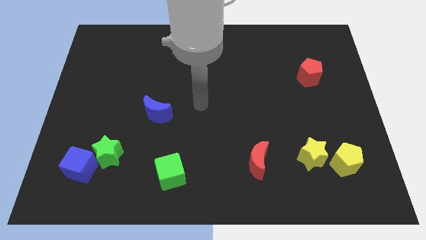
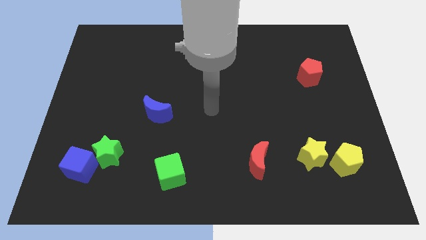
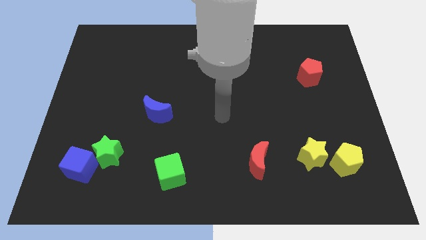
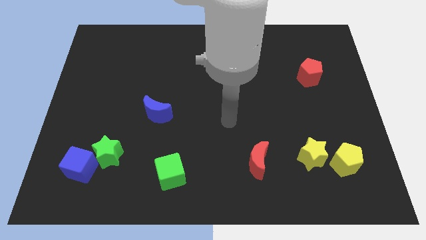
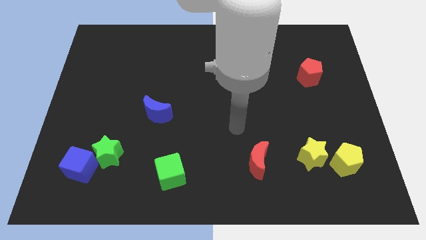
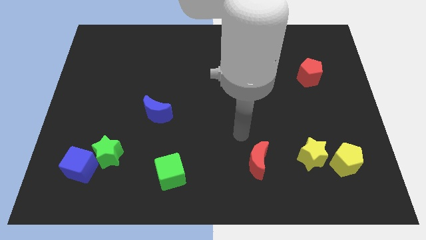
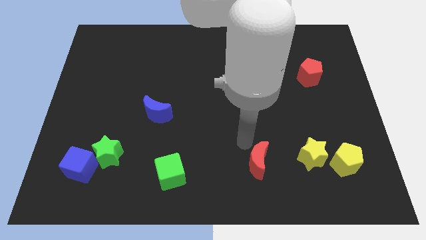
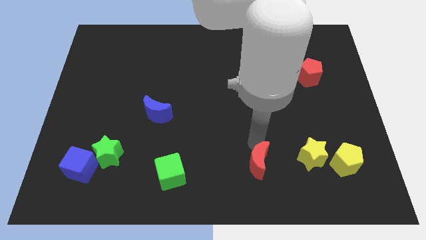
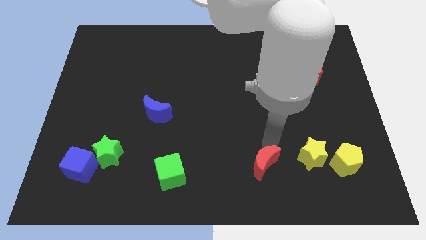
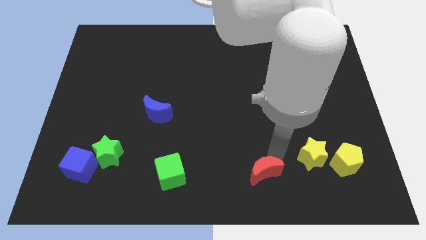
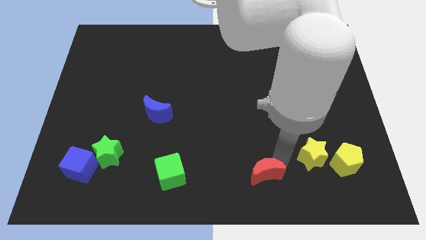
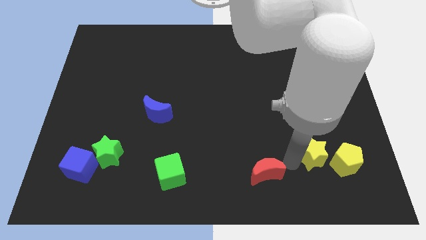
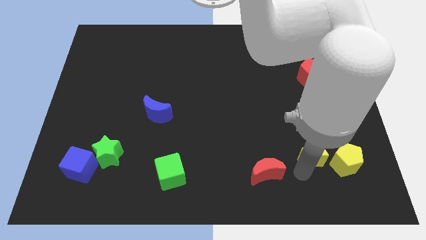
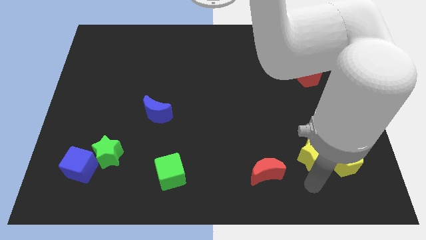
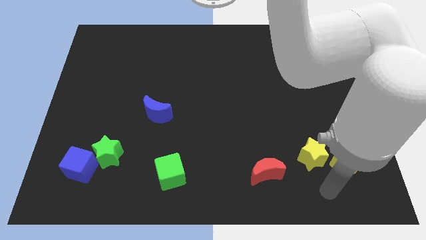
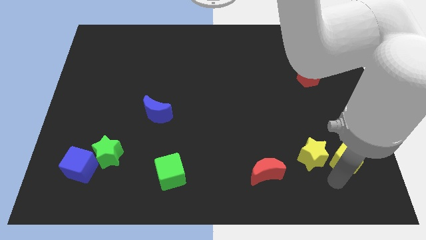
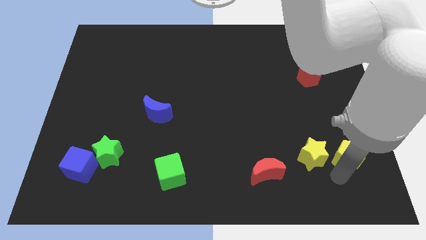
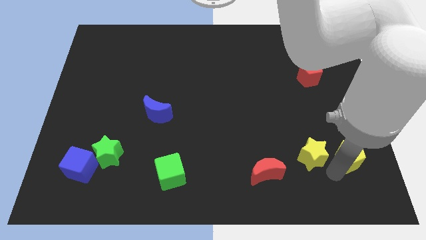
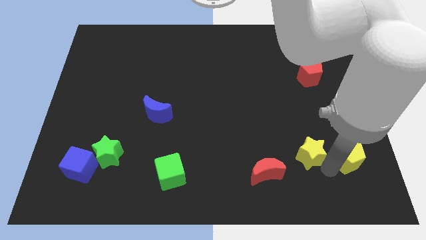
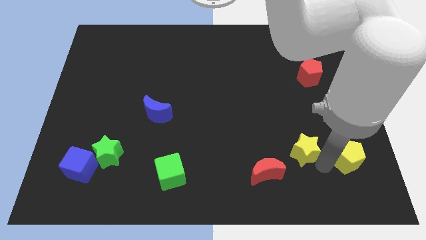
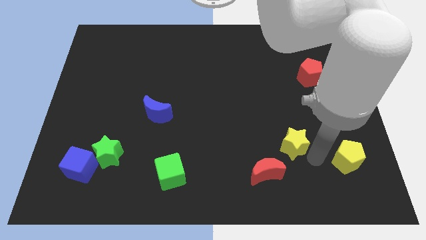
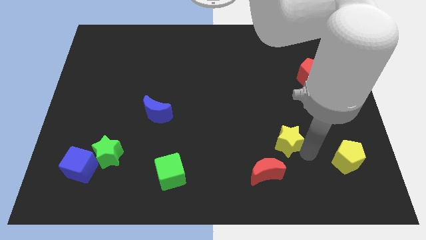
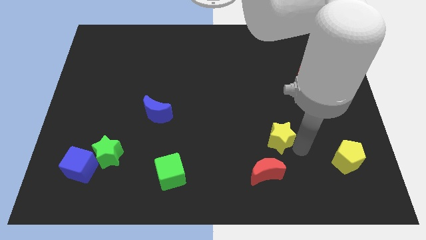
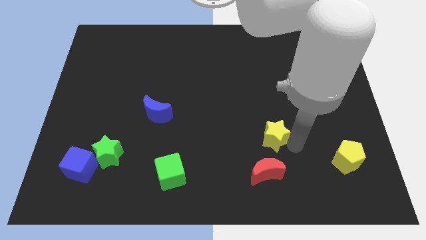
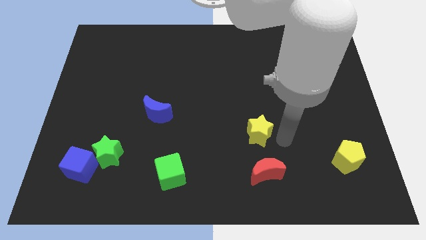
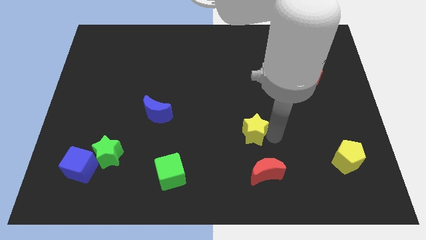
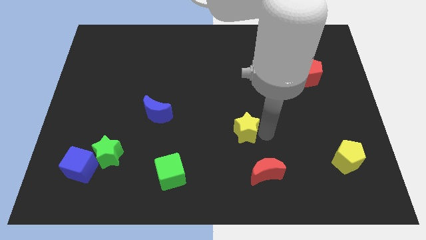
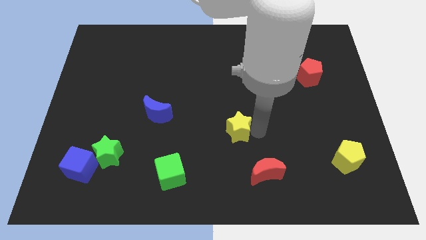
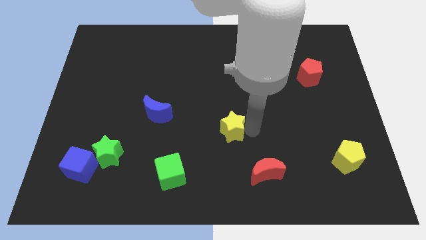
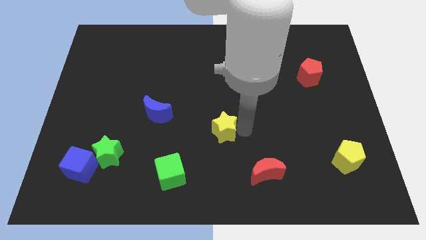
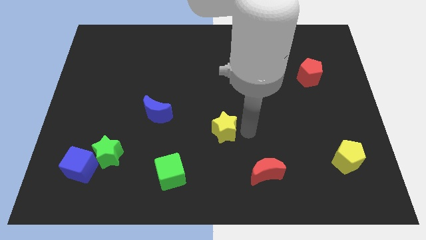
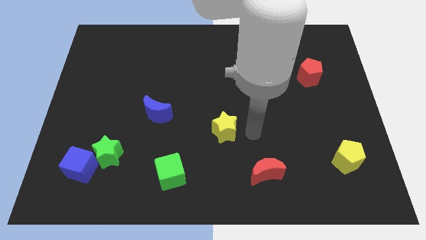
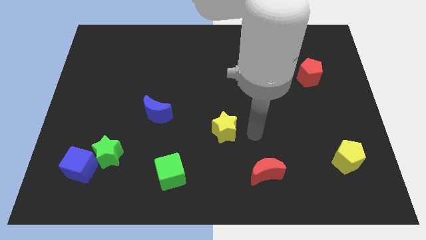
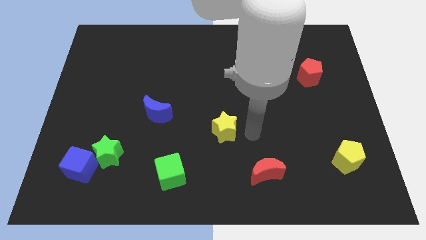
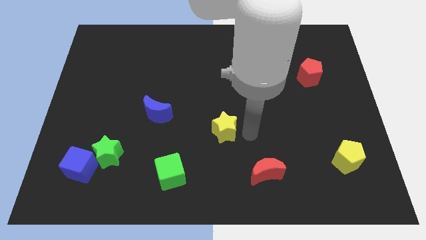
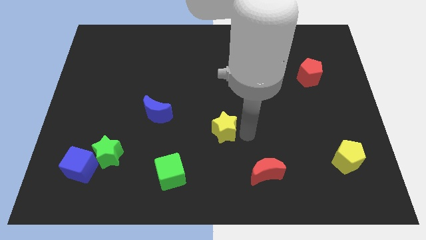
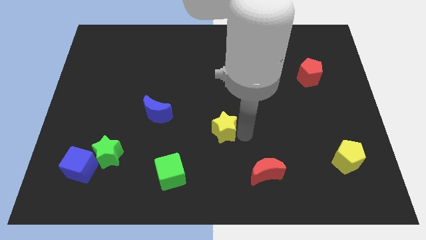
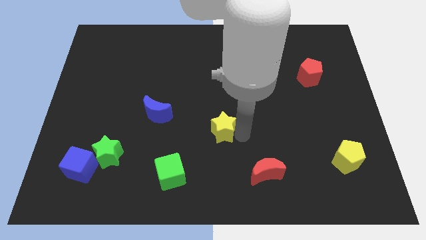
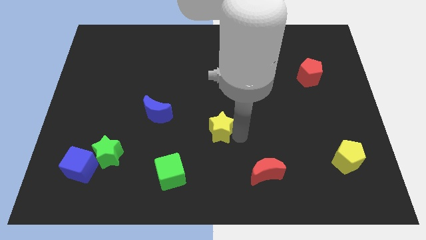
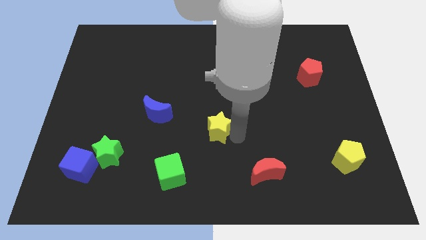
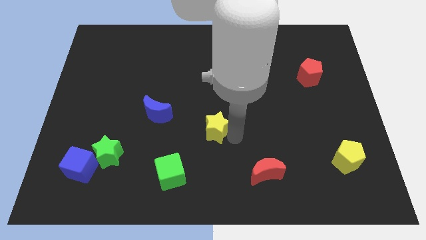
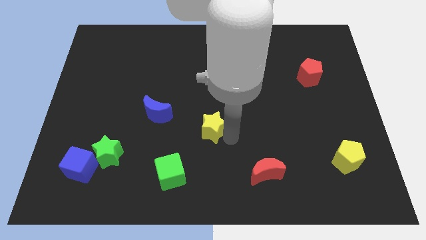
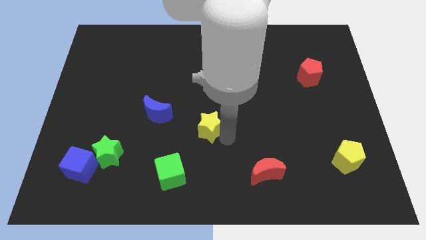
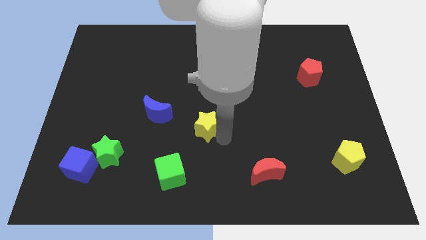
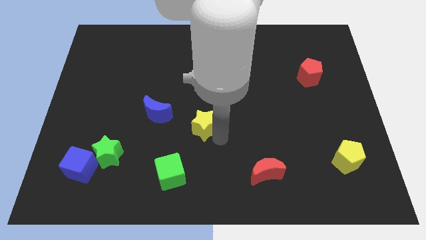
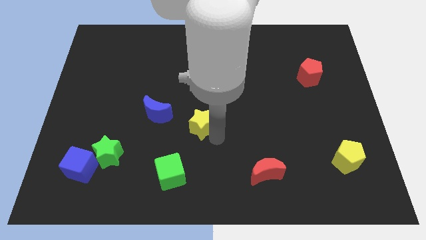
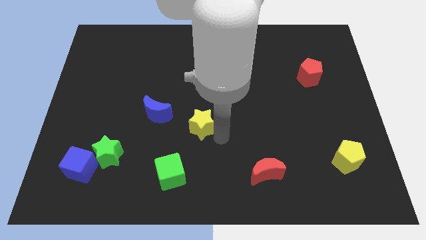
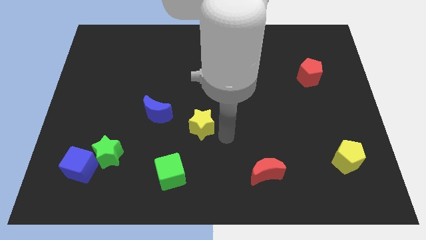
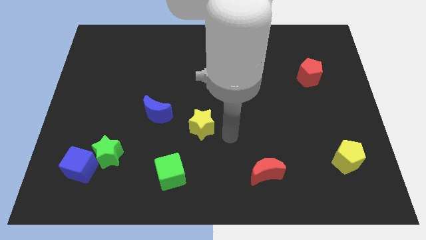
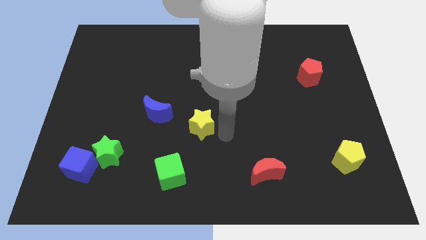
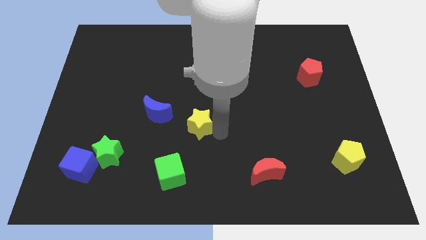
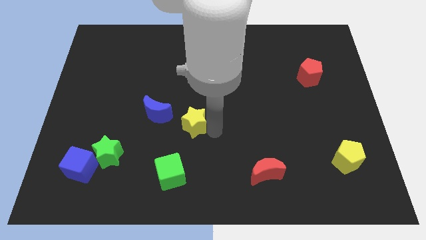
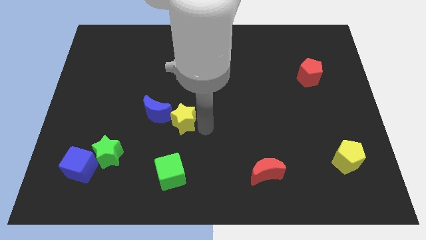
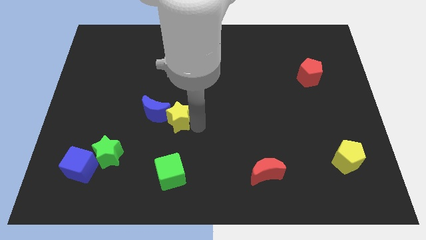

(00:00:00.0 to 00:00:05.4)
slide the yellow star close to the blue moon

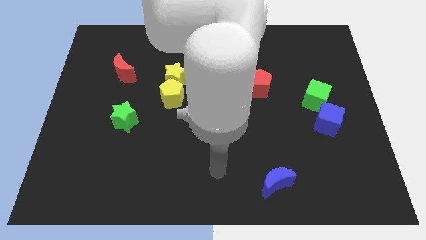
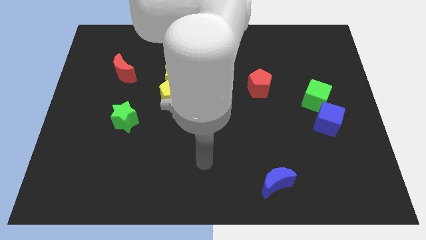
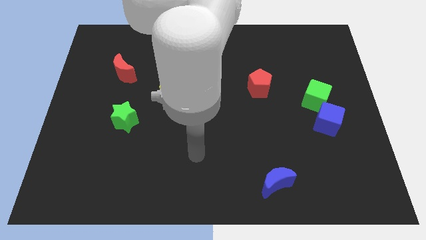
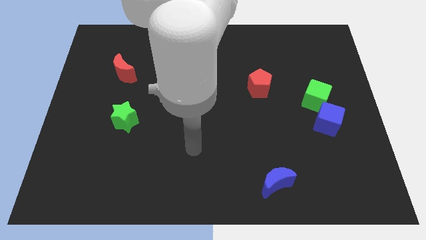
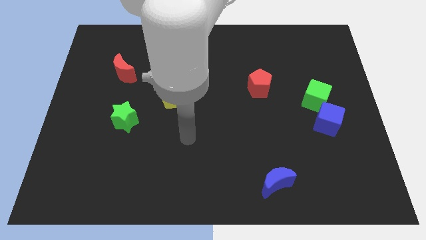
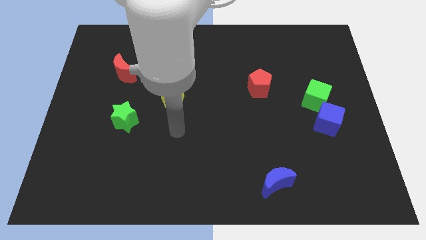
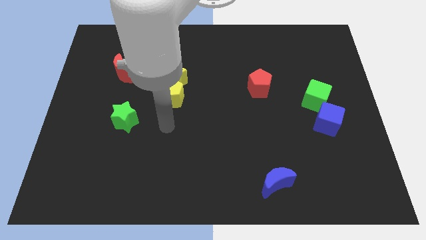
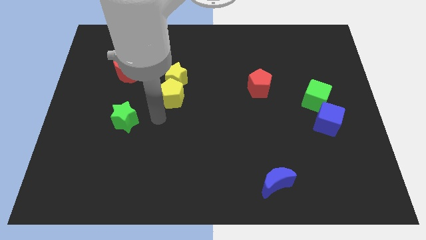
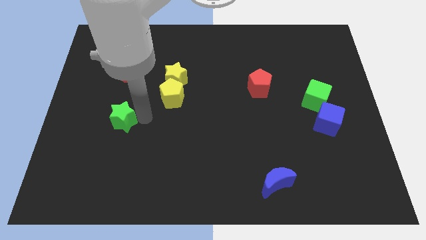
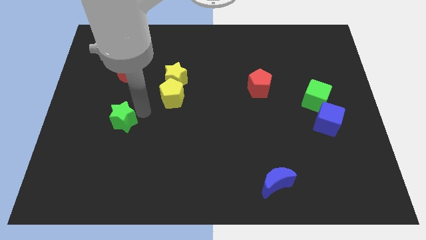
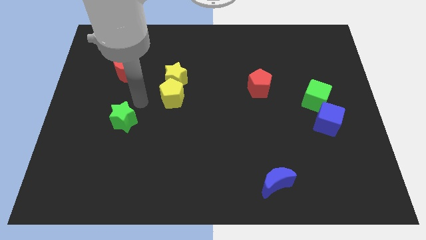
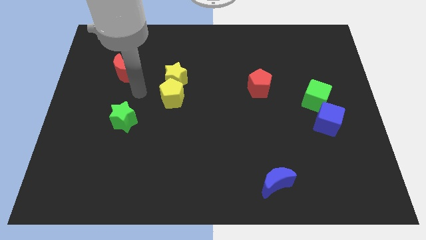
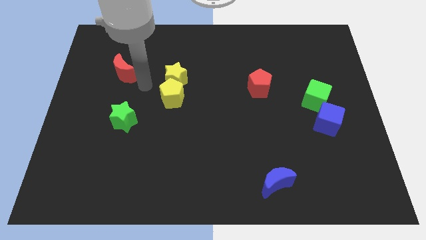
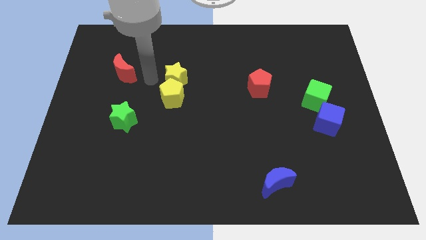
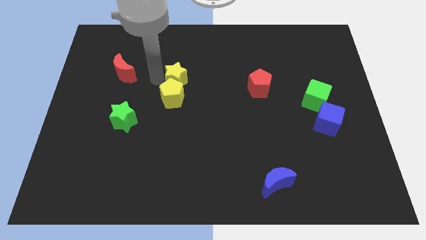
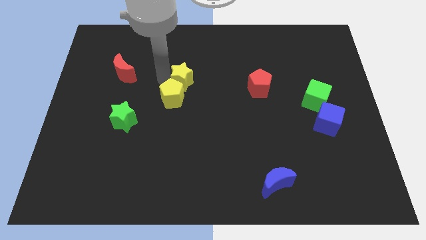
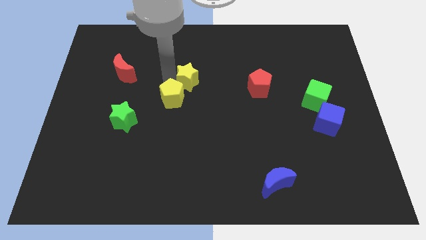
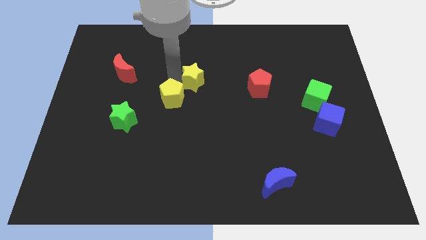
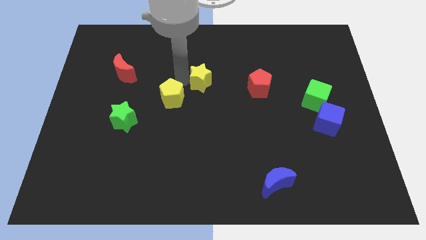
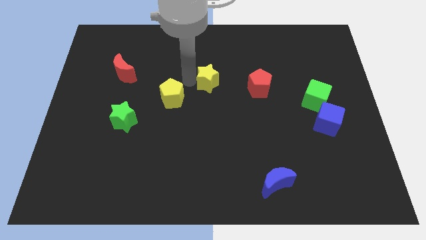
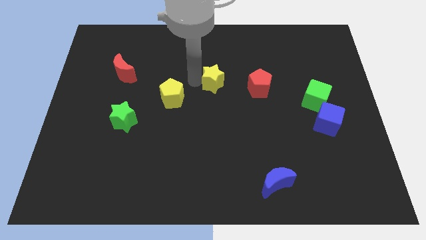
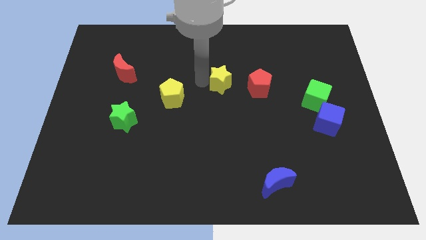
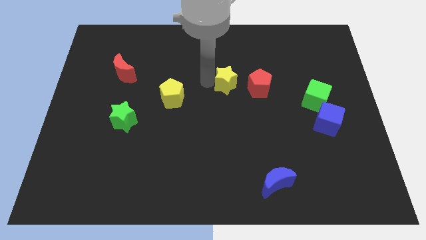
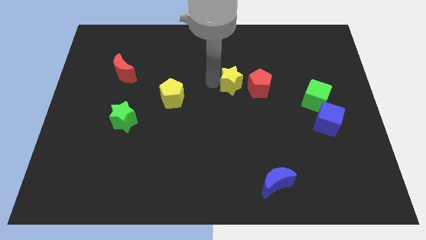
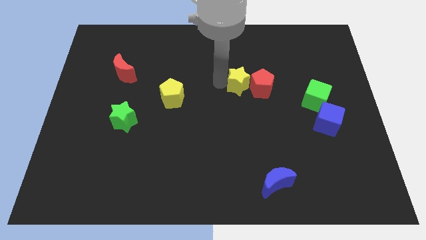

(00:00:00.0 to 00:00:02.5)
move the yellow star towards the red pentagon
